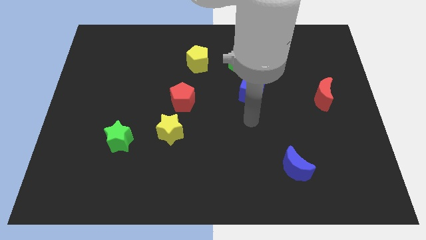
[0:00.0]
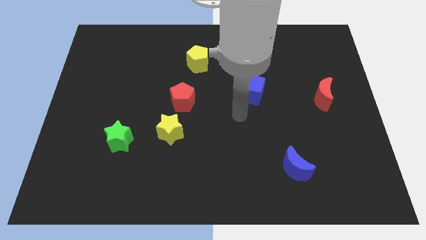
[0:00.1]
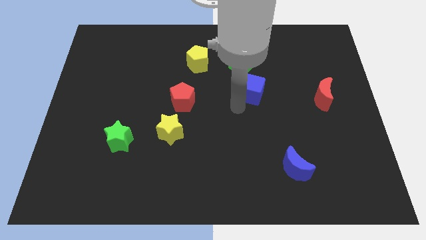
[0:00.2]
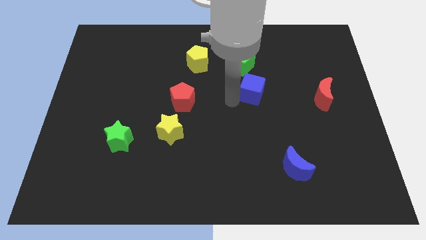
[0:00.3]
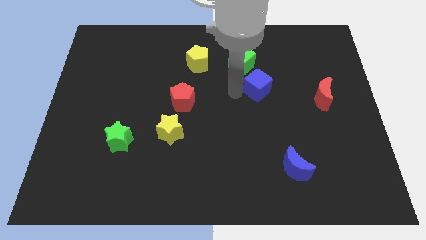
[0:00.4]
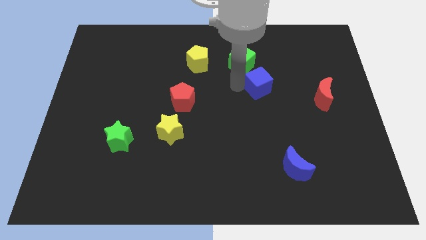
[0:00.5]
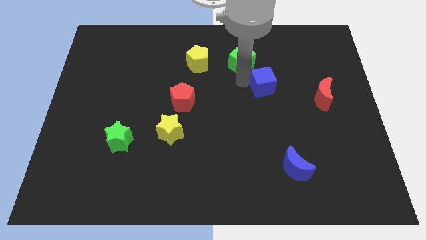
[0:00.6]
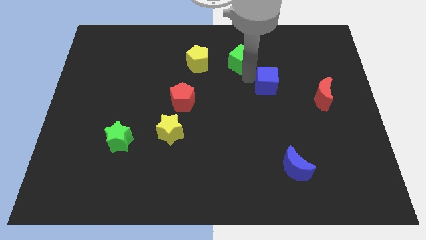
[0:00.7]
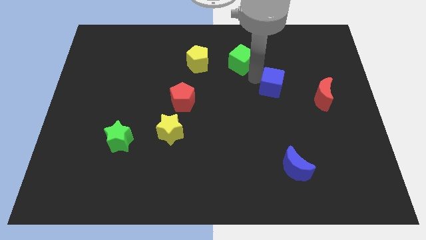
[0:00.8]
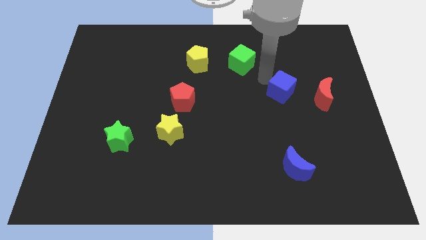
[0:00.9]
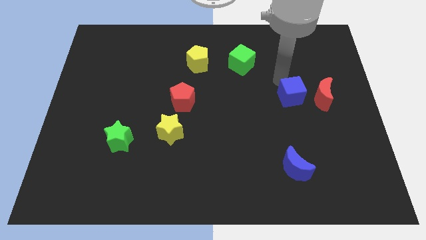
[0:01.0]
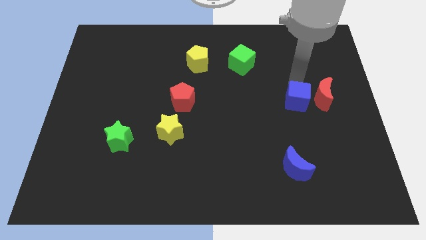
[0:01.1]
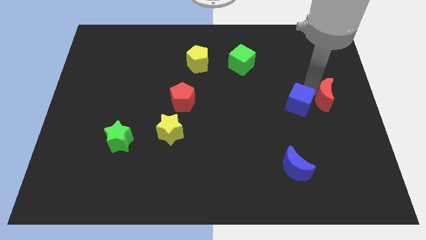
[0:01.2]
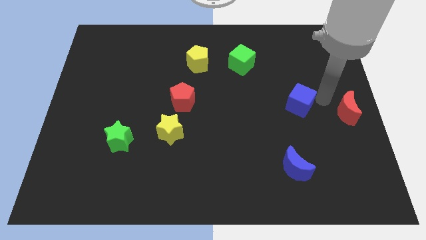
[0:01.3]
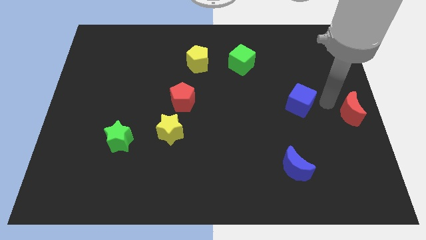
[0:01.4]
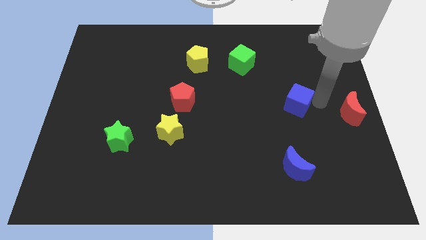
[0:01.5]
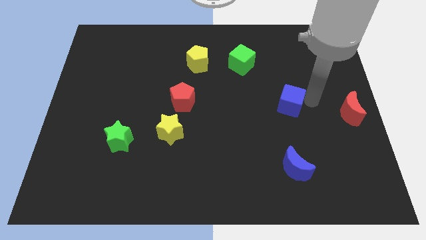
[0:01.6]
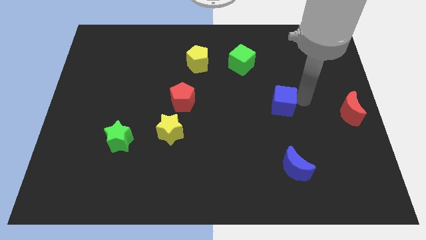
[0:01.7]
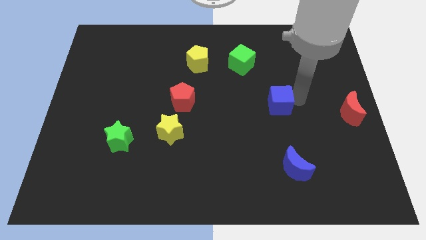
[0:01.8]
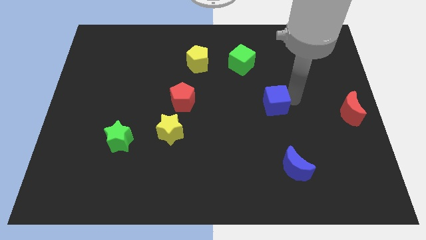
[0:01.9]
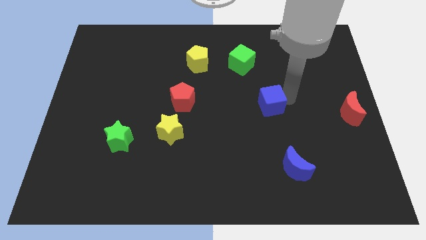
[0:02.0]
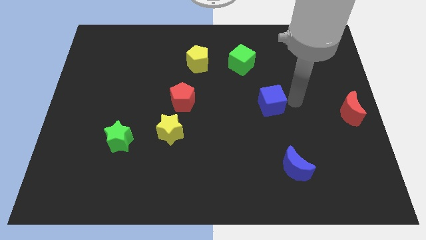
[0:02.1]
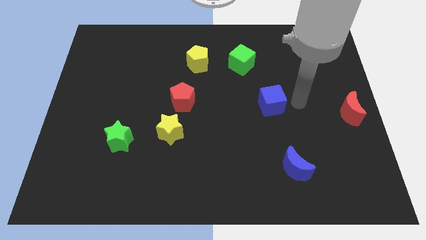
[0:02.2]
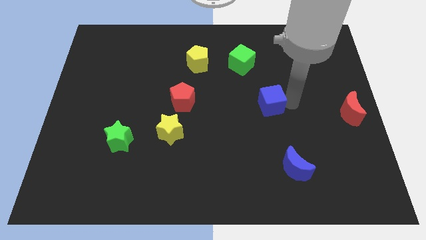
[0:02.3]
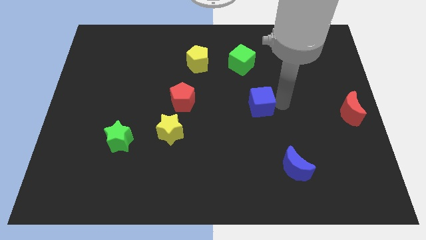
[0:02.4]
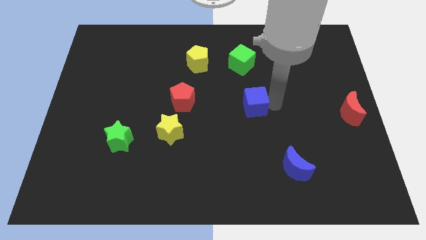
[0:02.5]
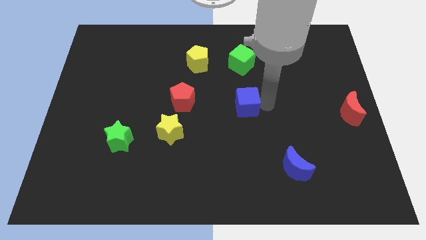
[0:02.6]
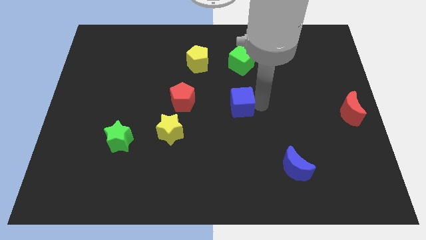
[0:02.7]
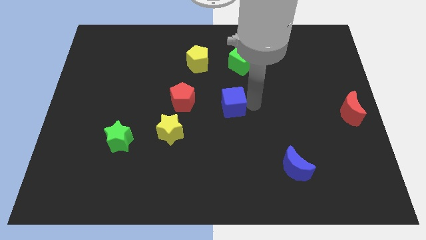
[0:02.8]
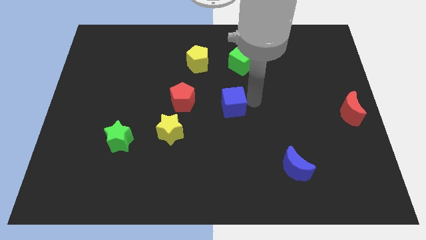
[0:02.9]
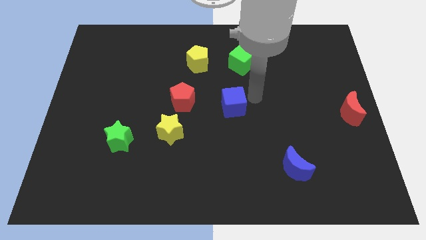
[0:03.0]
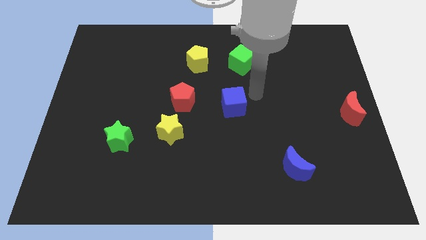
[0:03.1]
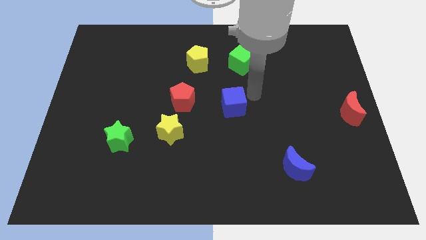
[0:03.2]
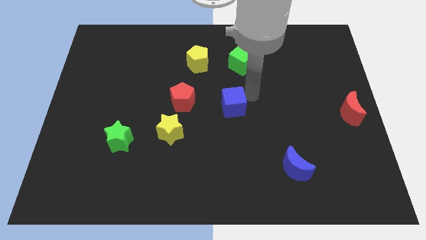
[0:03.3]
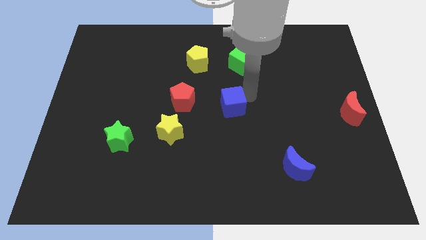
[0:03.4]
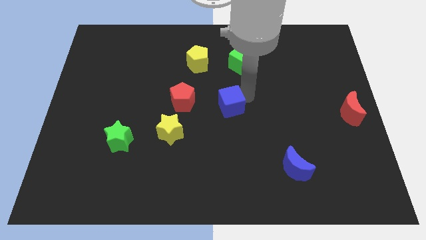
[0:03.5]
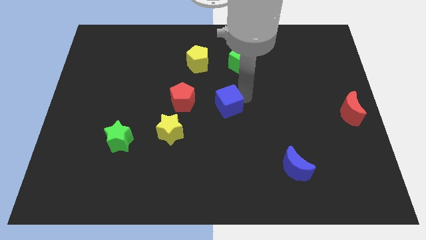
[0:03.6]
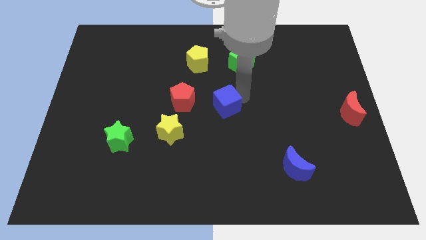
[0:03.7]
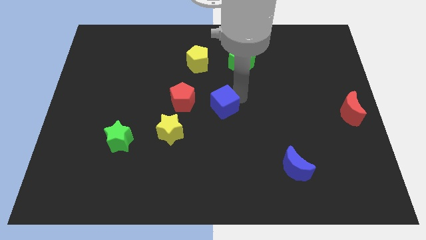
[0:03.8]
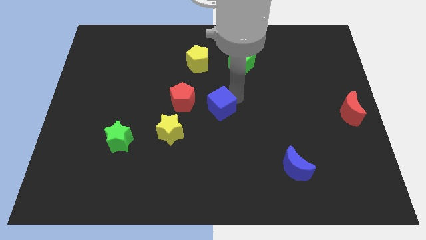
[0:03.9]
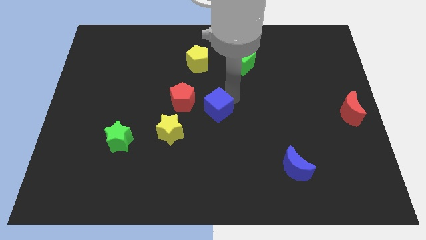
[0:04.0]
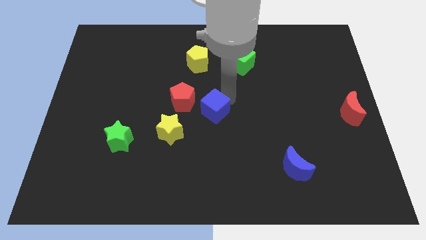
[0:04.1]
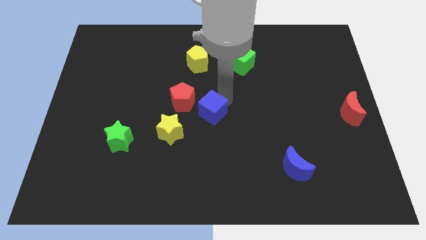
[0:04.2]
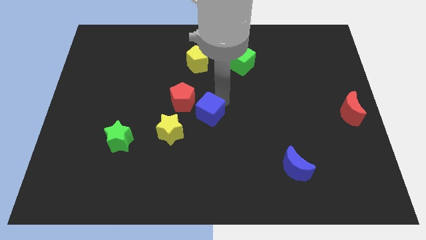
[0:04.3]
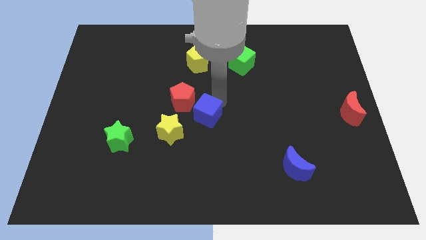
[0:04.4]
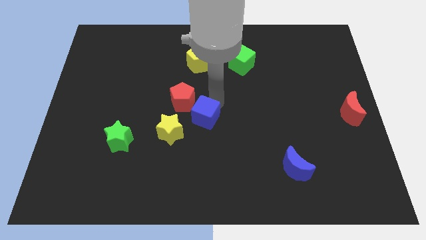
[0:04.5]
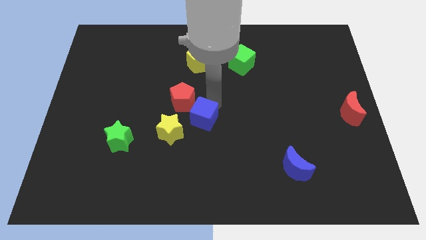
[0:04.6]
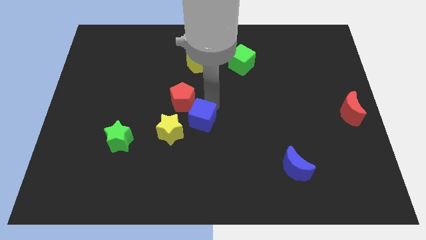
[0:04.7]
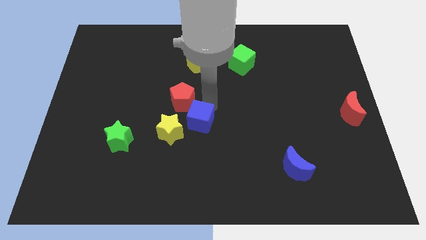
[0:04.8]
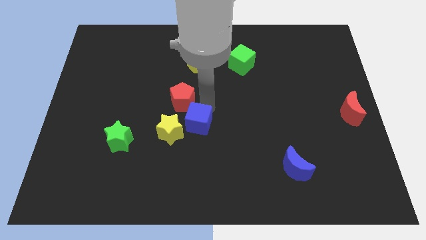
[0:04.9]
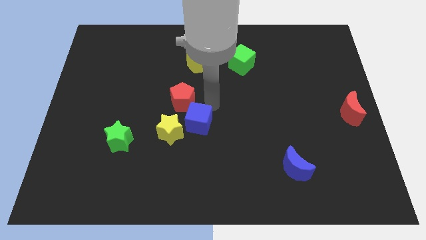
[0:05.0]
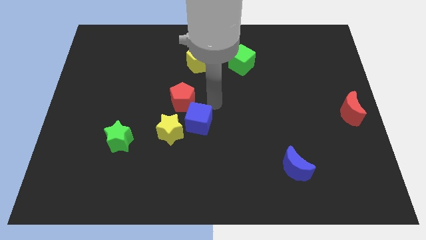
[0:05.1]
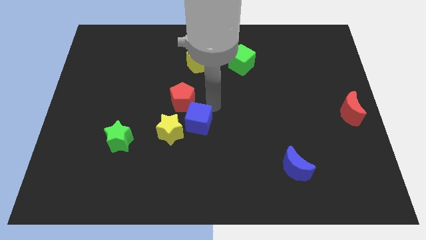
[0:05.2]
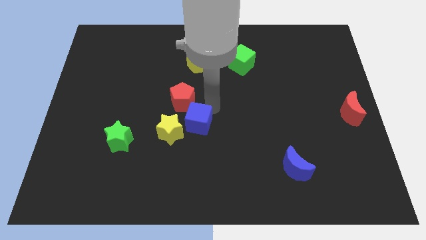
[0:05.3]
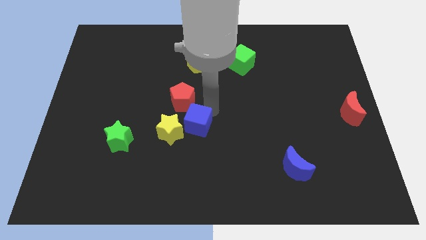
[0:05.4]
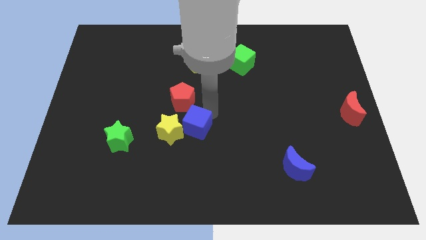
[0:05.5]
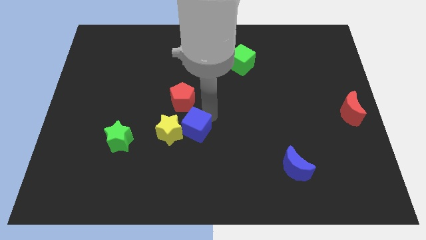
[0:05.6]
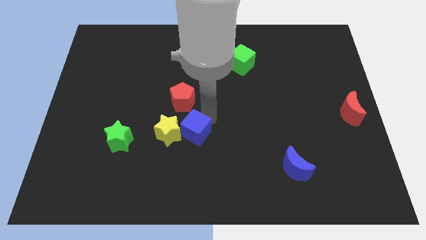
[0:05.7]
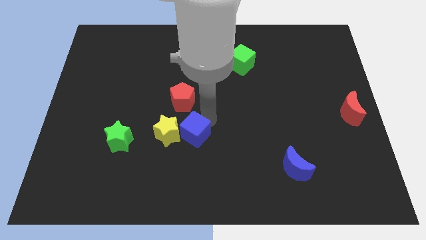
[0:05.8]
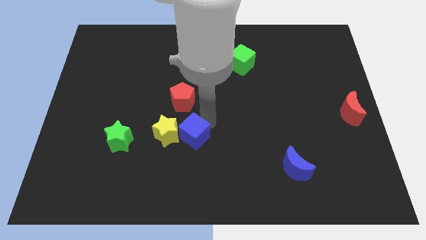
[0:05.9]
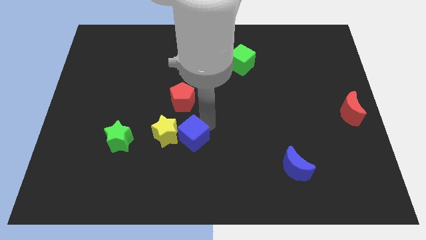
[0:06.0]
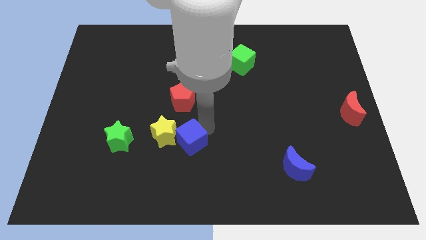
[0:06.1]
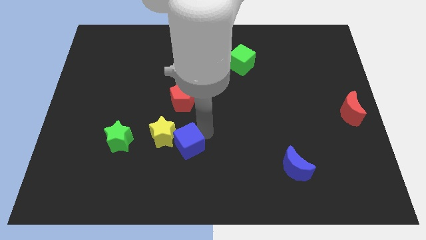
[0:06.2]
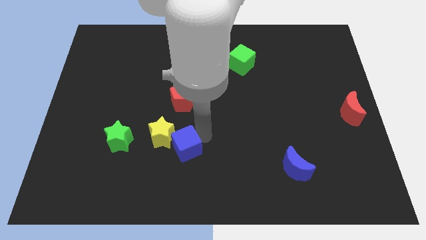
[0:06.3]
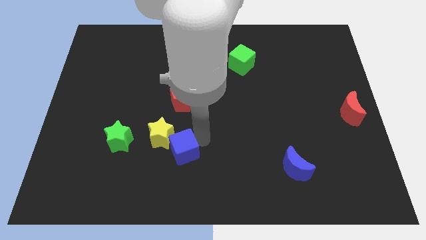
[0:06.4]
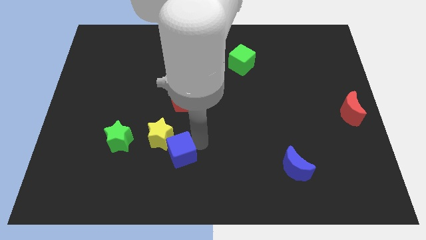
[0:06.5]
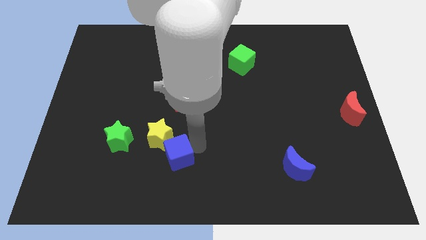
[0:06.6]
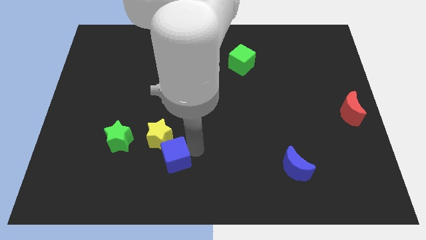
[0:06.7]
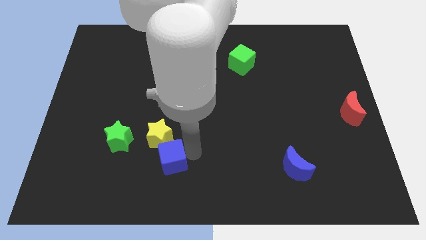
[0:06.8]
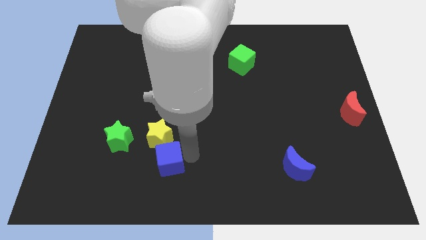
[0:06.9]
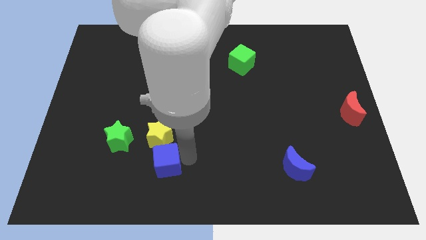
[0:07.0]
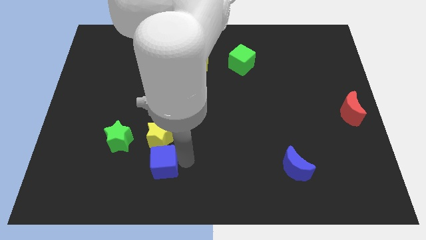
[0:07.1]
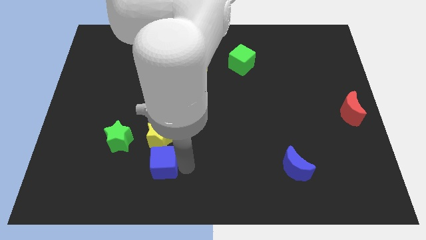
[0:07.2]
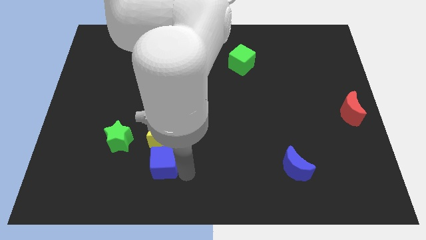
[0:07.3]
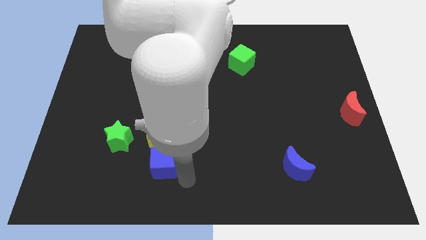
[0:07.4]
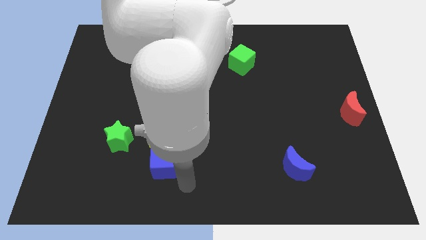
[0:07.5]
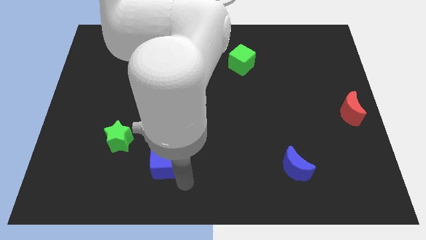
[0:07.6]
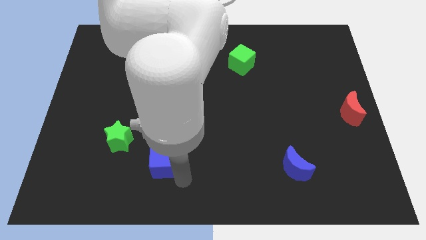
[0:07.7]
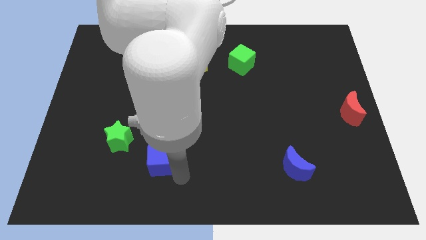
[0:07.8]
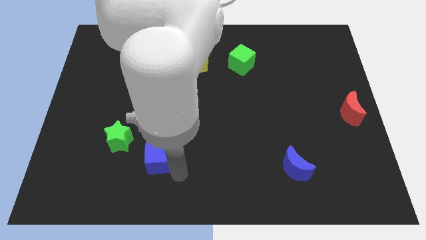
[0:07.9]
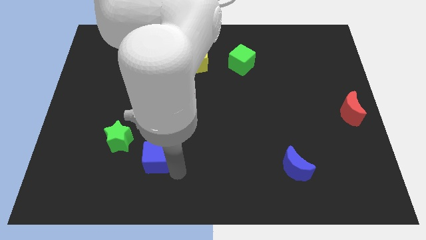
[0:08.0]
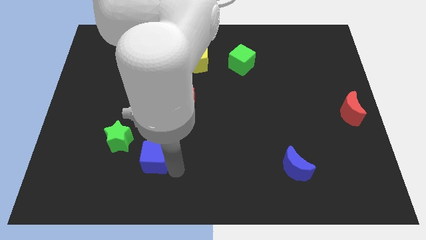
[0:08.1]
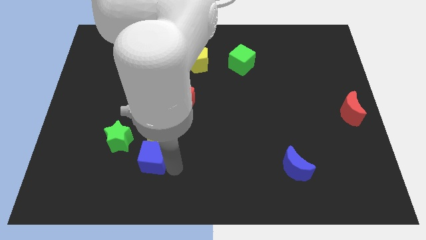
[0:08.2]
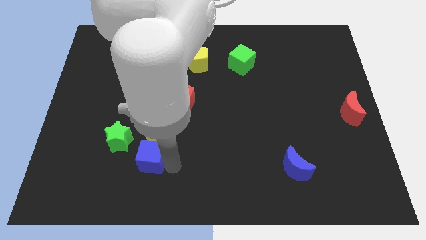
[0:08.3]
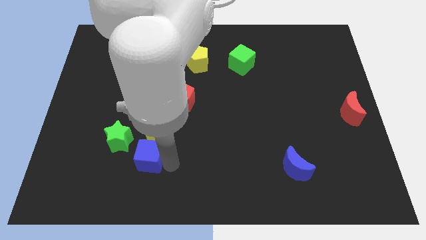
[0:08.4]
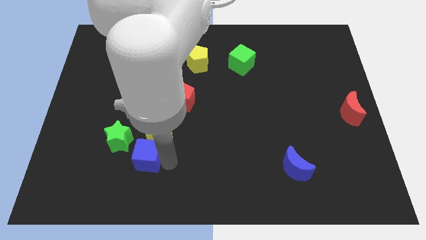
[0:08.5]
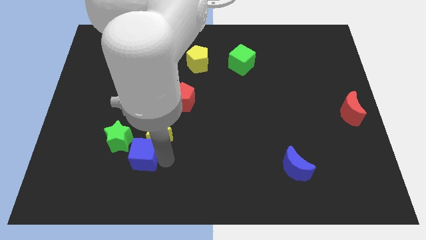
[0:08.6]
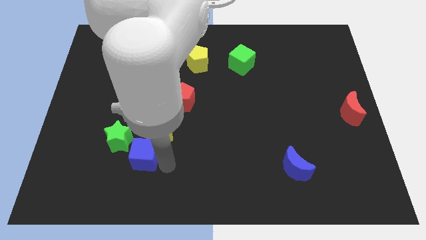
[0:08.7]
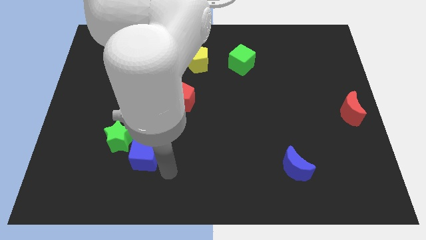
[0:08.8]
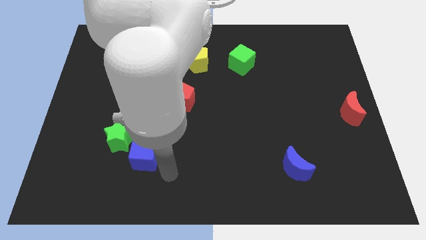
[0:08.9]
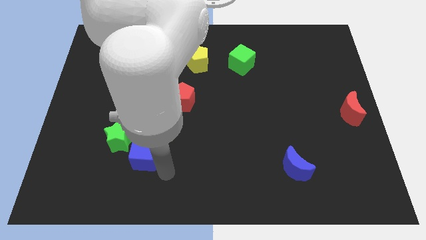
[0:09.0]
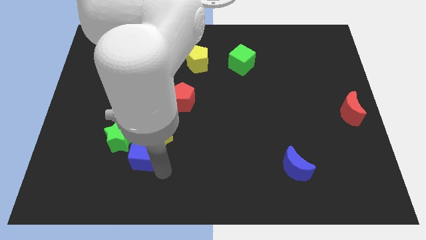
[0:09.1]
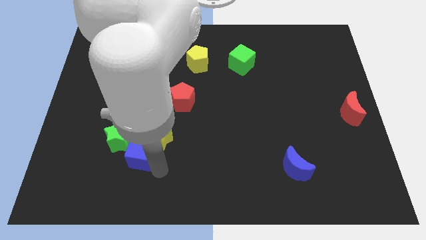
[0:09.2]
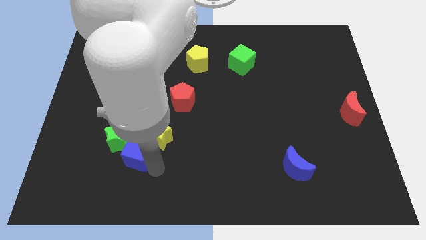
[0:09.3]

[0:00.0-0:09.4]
slide the blue cube to the green star
